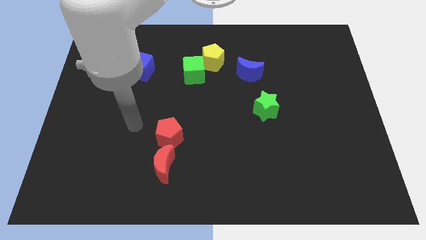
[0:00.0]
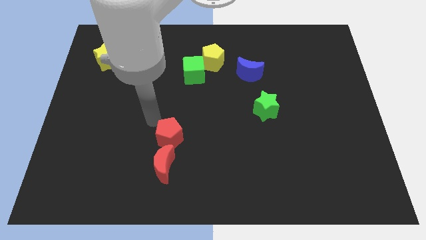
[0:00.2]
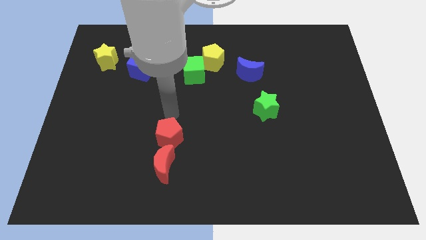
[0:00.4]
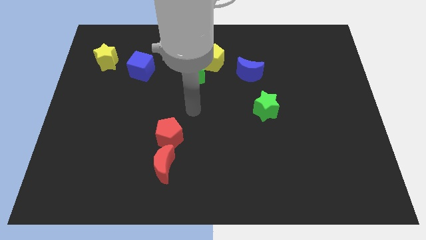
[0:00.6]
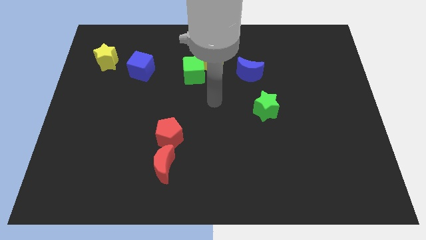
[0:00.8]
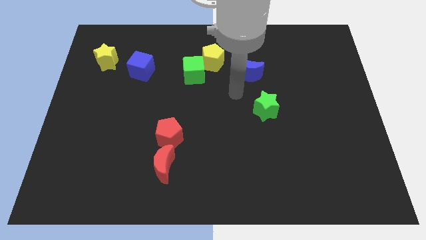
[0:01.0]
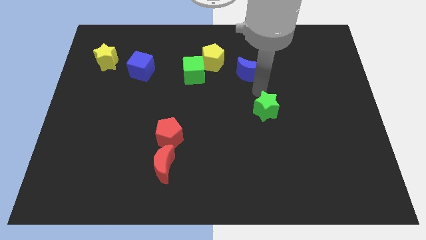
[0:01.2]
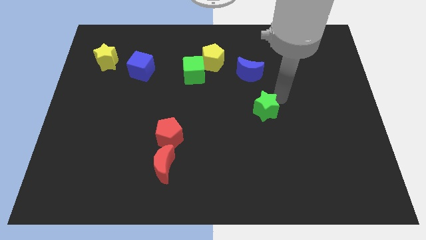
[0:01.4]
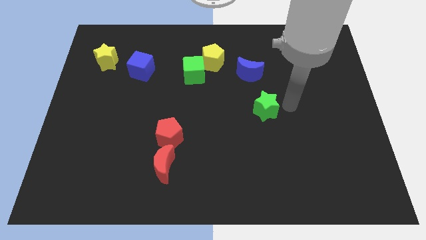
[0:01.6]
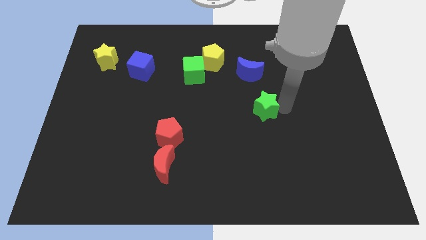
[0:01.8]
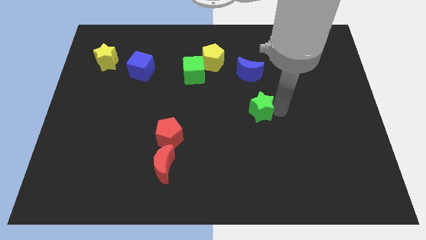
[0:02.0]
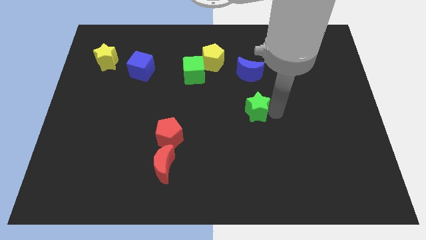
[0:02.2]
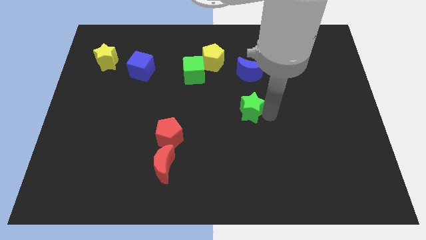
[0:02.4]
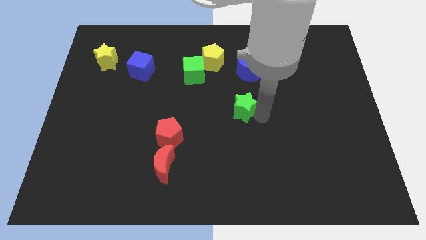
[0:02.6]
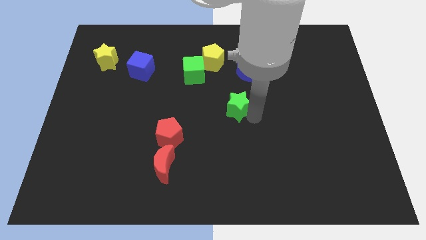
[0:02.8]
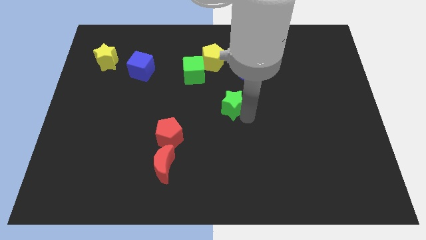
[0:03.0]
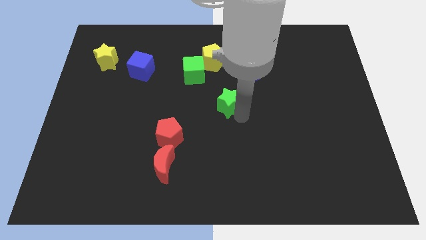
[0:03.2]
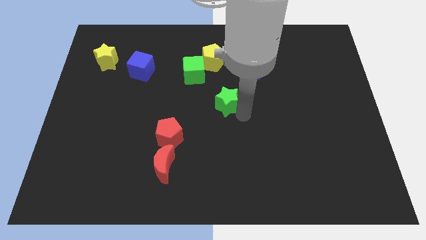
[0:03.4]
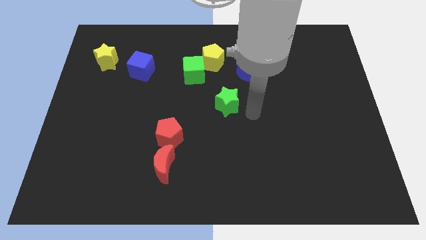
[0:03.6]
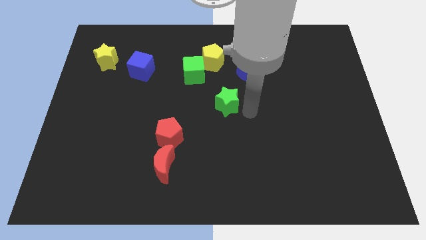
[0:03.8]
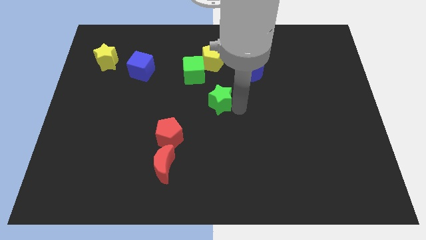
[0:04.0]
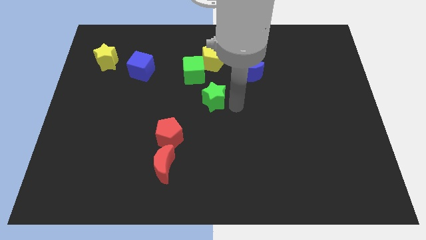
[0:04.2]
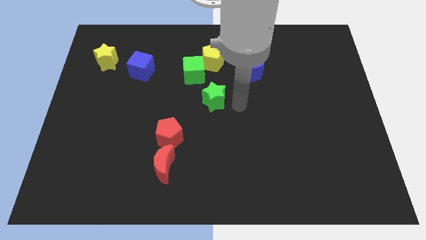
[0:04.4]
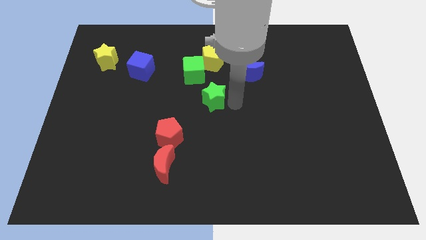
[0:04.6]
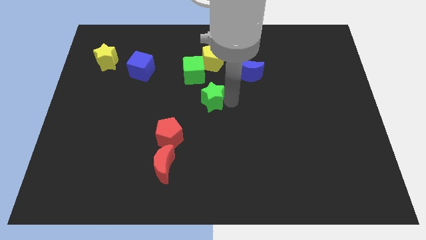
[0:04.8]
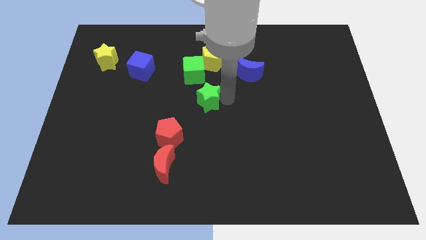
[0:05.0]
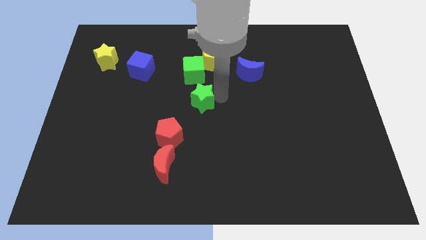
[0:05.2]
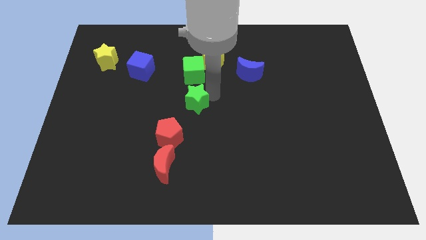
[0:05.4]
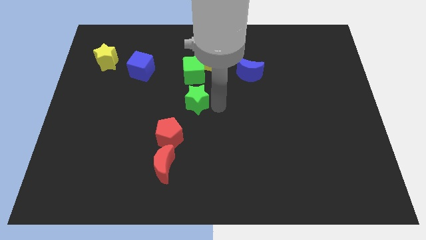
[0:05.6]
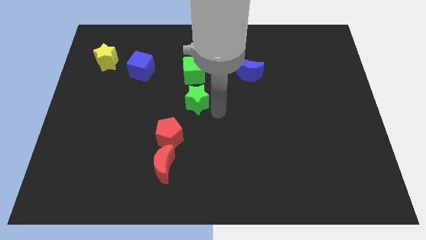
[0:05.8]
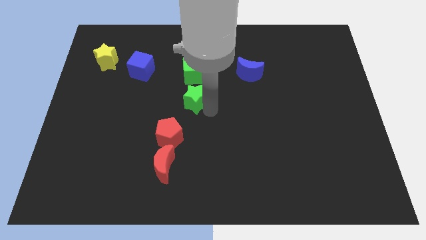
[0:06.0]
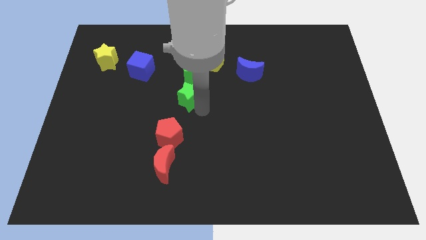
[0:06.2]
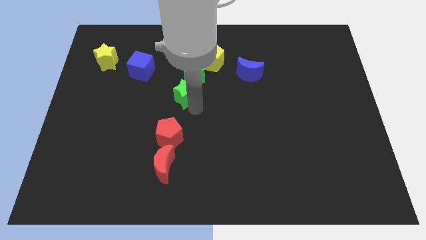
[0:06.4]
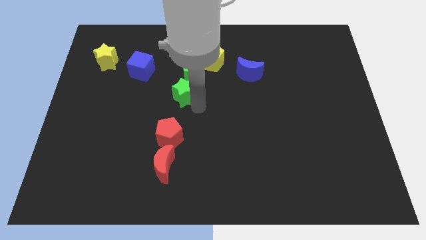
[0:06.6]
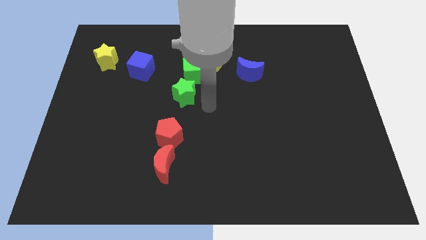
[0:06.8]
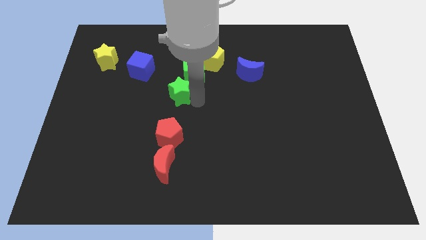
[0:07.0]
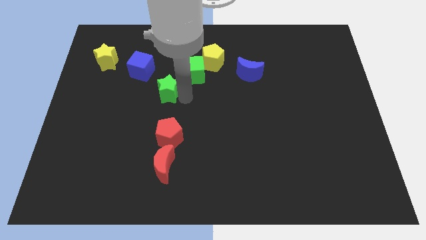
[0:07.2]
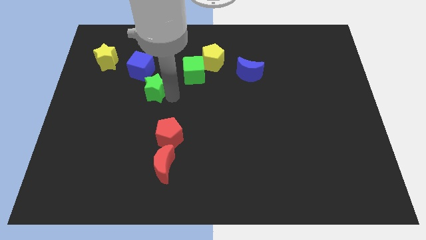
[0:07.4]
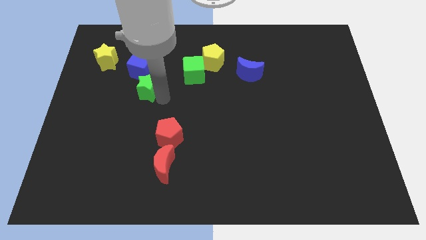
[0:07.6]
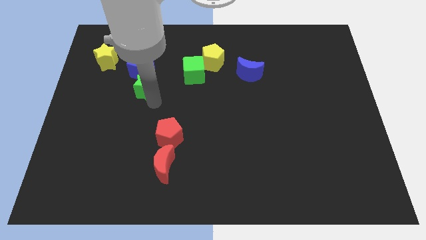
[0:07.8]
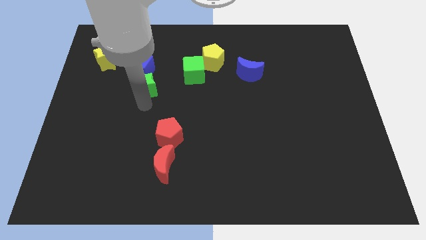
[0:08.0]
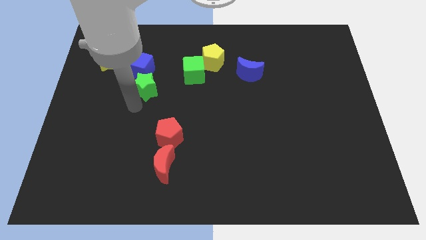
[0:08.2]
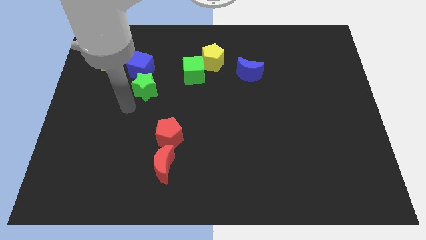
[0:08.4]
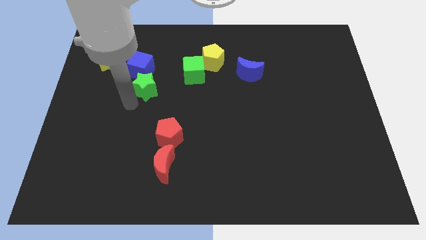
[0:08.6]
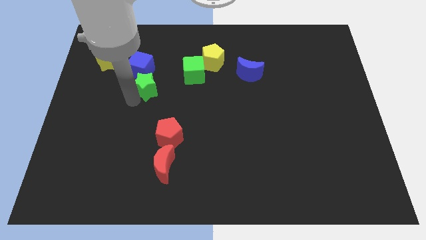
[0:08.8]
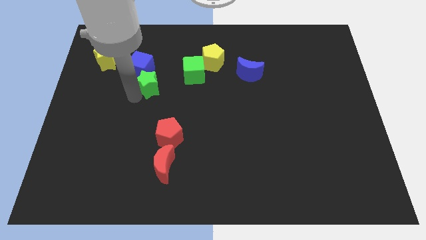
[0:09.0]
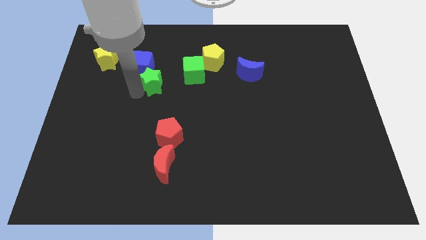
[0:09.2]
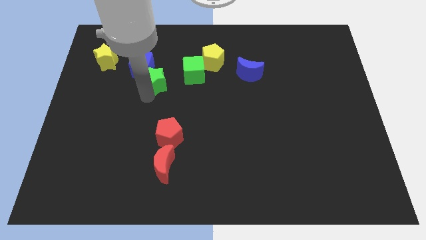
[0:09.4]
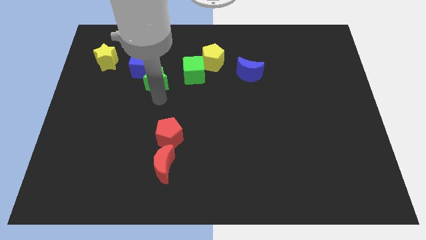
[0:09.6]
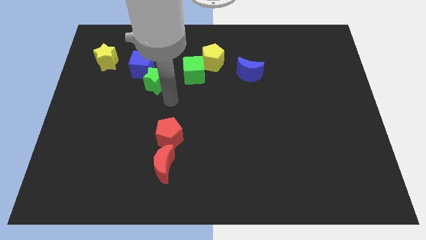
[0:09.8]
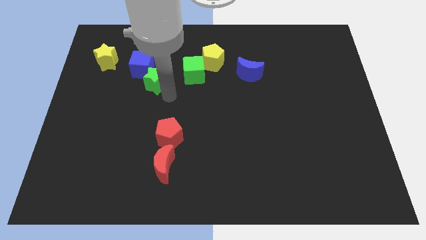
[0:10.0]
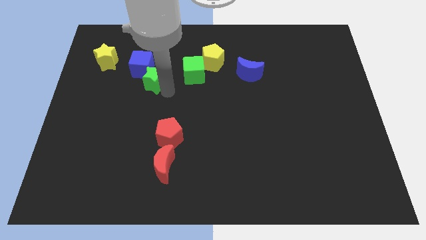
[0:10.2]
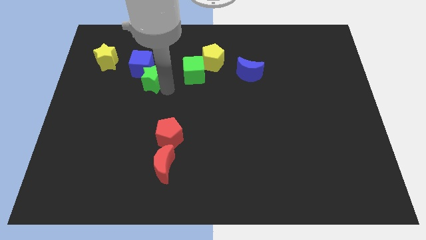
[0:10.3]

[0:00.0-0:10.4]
put the green star next to the blue cube

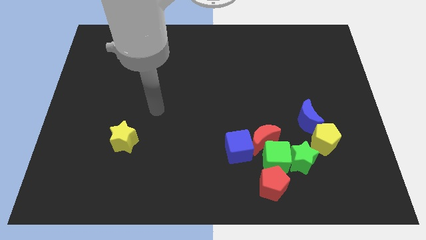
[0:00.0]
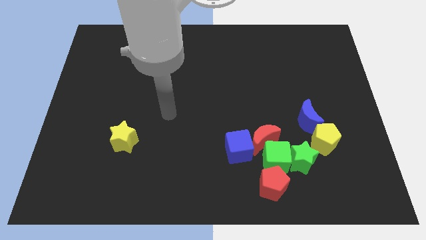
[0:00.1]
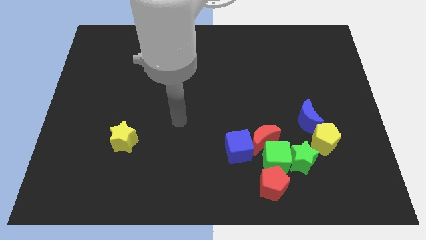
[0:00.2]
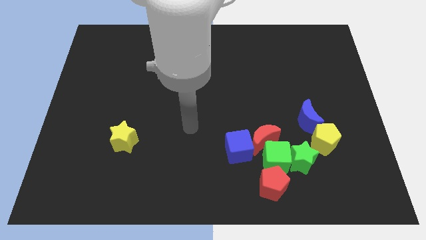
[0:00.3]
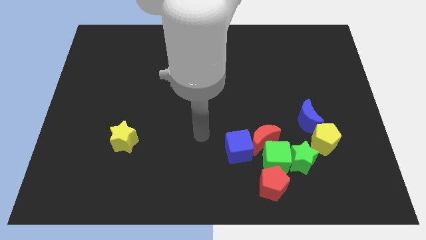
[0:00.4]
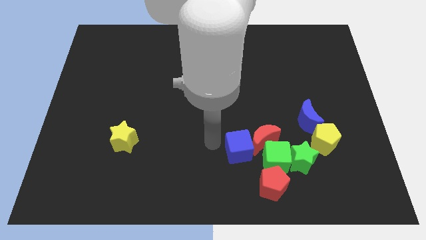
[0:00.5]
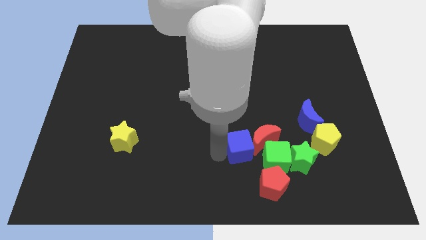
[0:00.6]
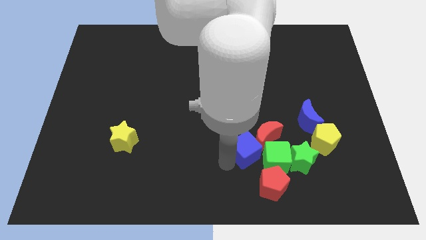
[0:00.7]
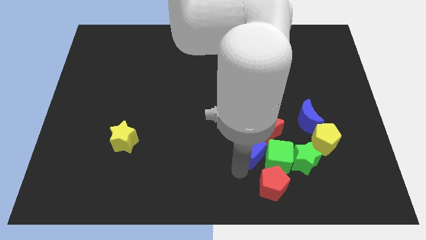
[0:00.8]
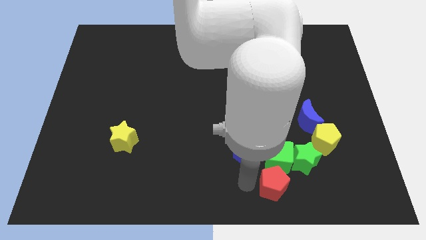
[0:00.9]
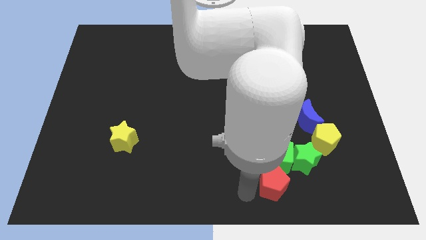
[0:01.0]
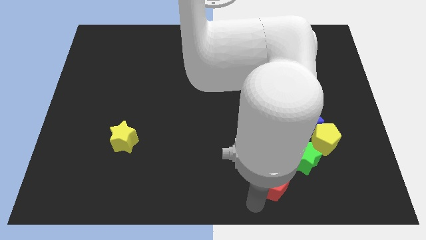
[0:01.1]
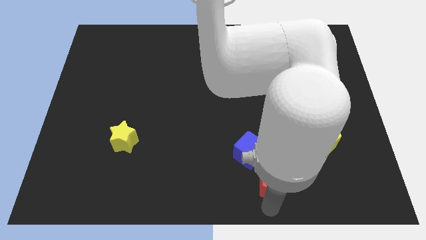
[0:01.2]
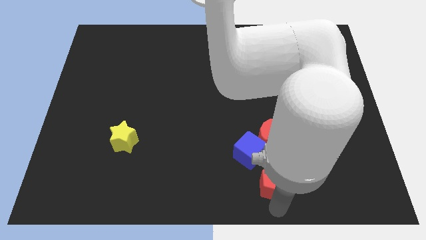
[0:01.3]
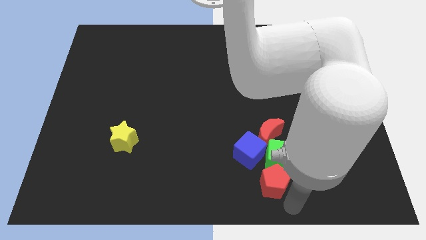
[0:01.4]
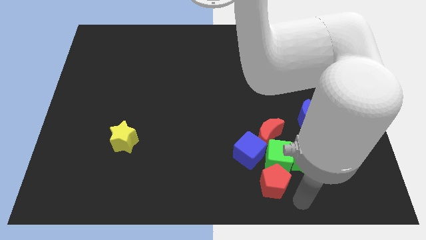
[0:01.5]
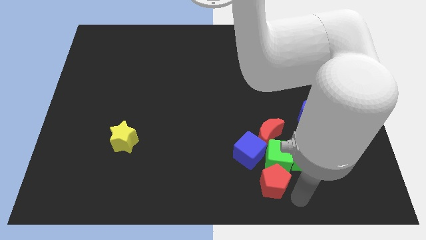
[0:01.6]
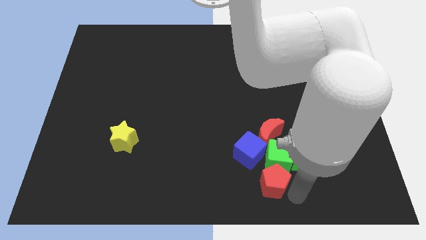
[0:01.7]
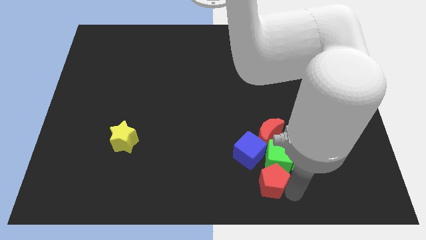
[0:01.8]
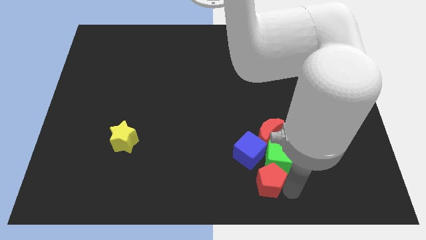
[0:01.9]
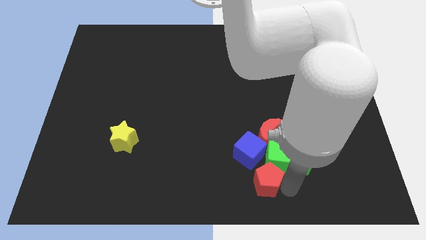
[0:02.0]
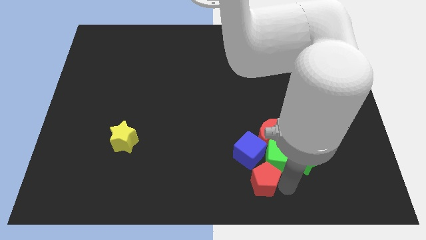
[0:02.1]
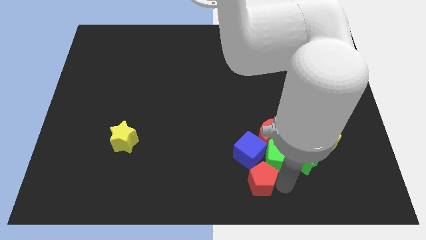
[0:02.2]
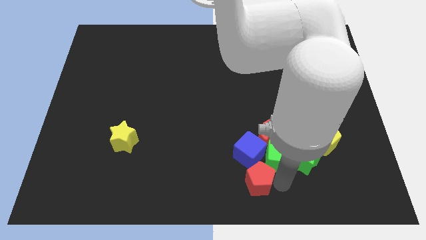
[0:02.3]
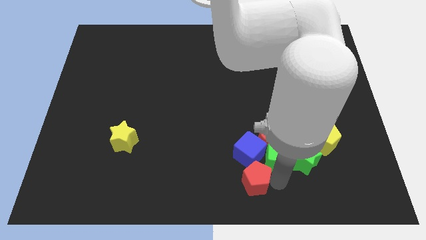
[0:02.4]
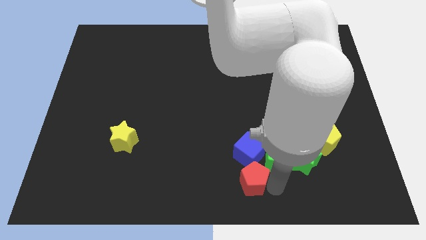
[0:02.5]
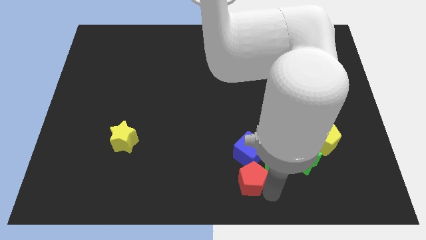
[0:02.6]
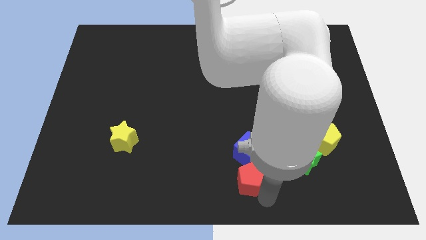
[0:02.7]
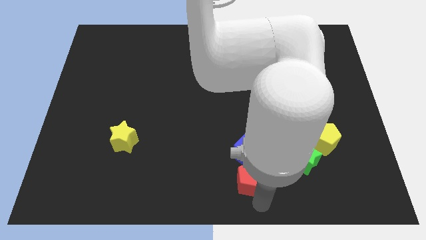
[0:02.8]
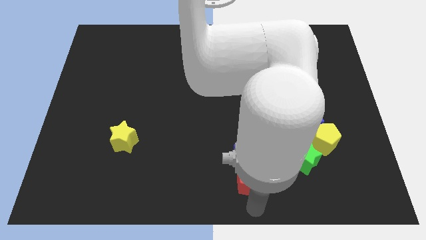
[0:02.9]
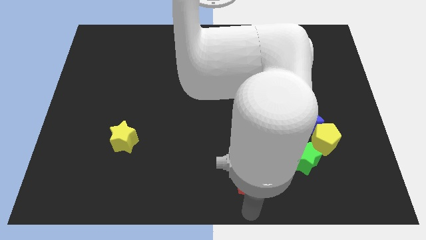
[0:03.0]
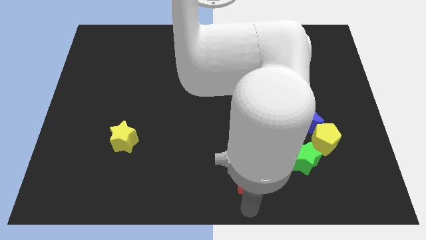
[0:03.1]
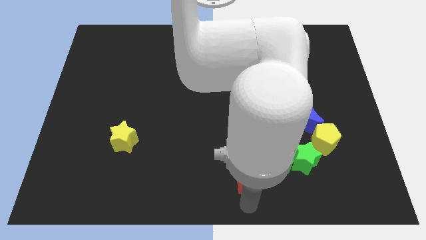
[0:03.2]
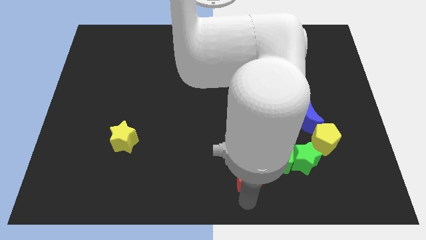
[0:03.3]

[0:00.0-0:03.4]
slide the red pentagon to the blue cube
